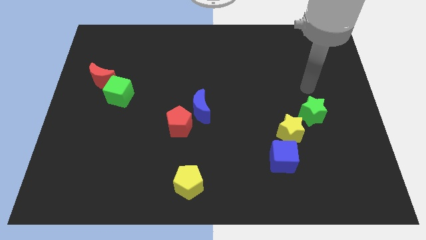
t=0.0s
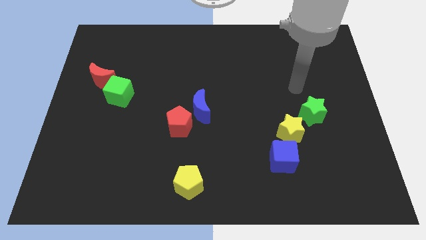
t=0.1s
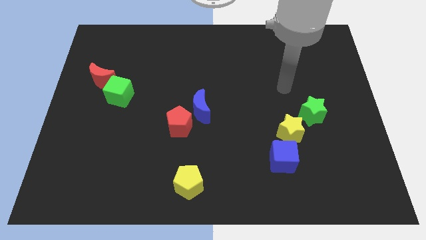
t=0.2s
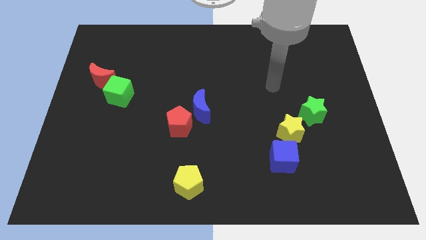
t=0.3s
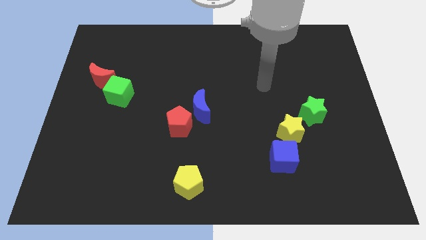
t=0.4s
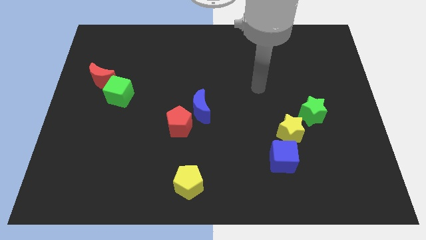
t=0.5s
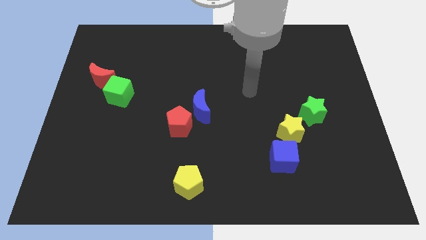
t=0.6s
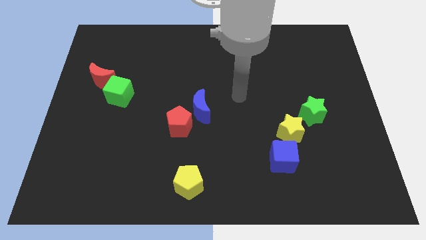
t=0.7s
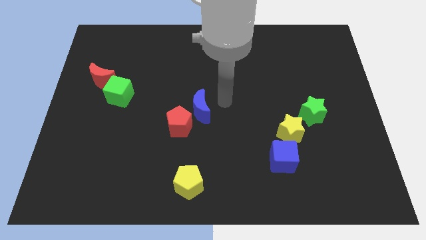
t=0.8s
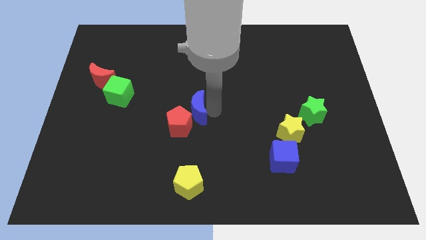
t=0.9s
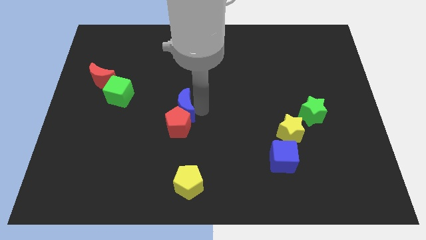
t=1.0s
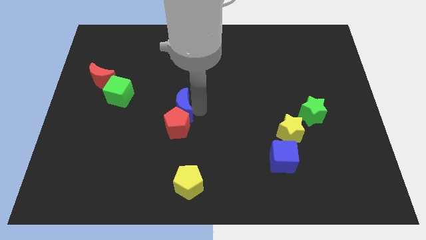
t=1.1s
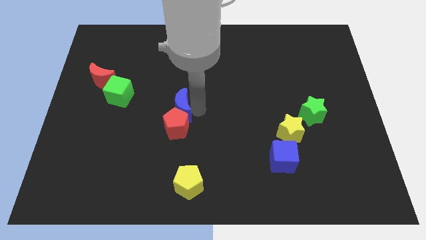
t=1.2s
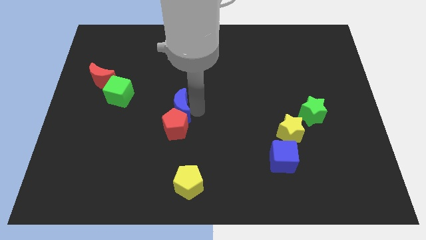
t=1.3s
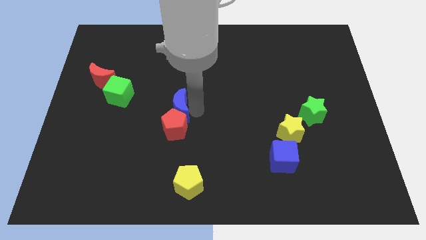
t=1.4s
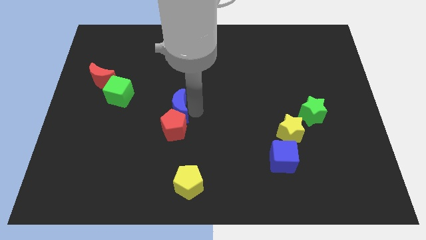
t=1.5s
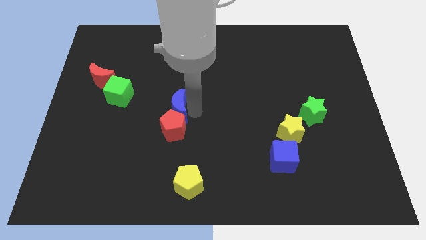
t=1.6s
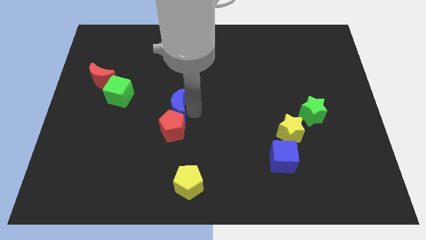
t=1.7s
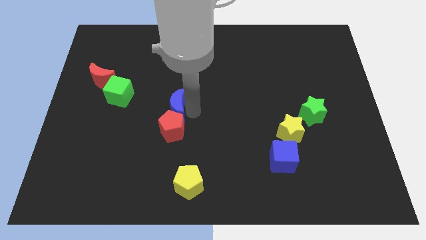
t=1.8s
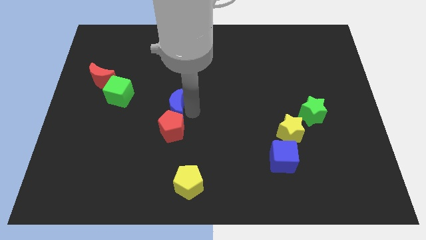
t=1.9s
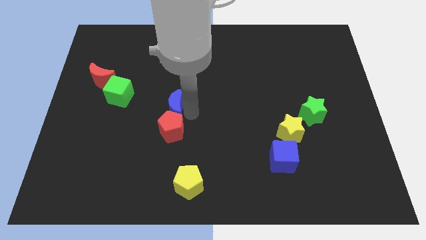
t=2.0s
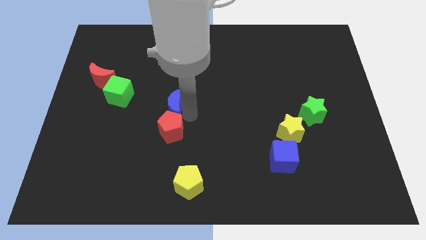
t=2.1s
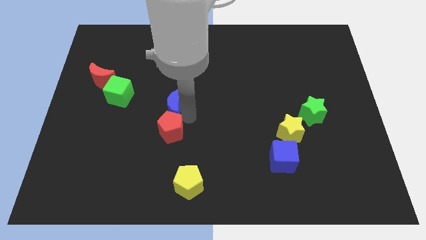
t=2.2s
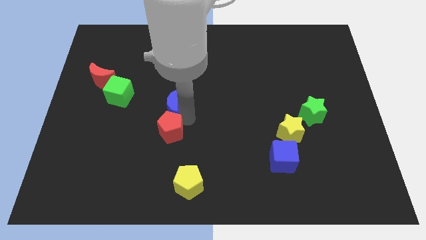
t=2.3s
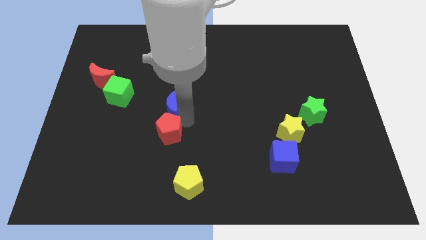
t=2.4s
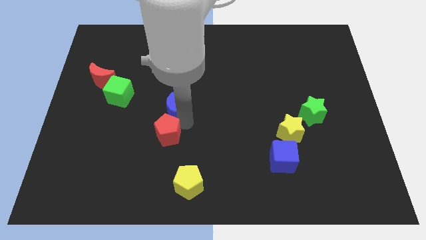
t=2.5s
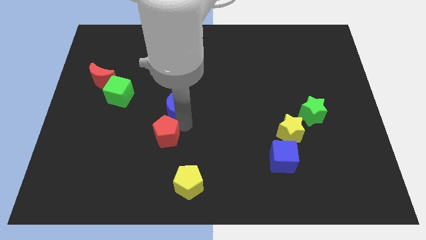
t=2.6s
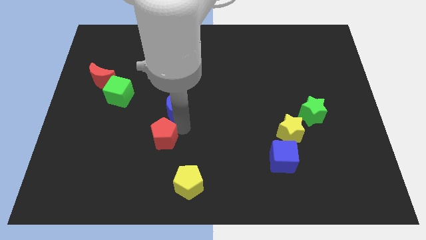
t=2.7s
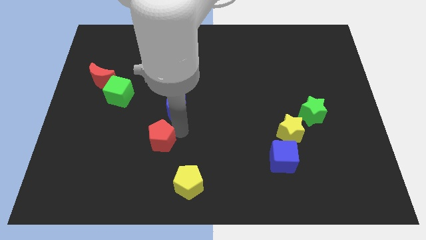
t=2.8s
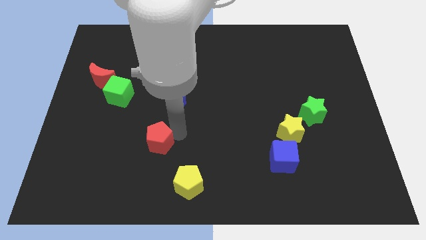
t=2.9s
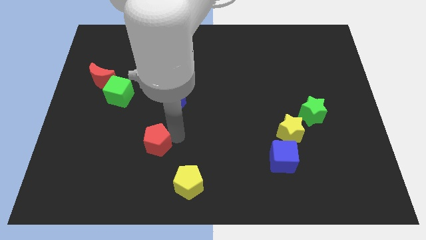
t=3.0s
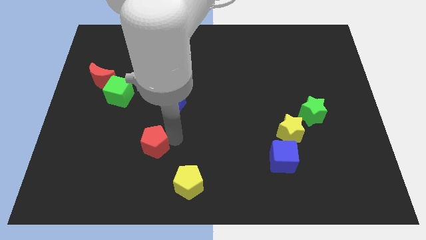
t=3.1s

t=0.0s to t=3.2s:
move the red pentagon downwards and to the left a little bit

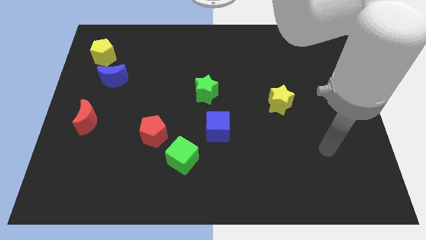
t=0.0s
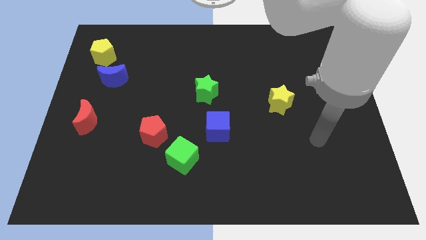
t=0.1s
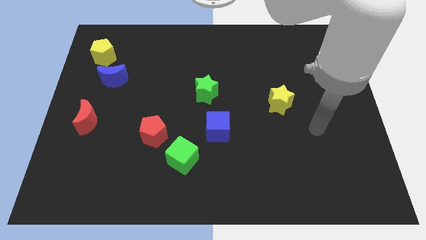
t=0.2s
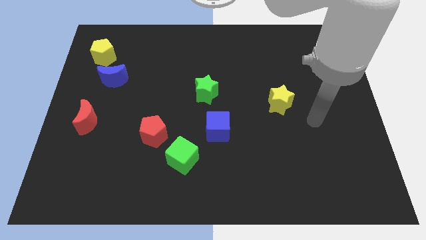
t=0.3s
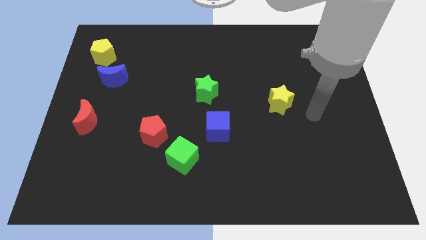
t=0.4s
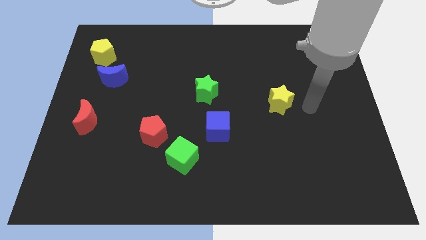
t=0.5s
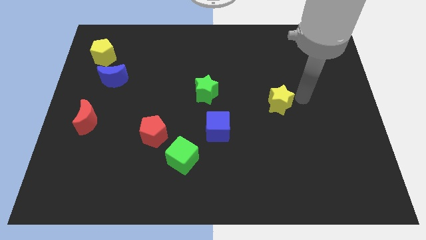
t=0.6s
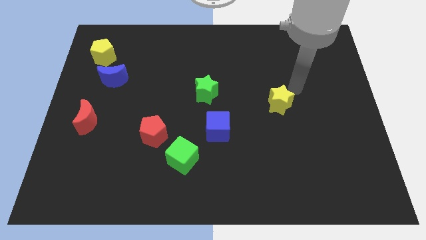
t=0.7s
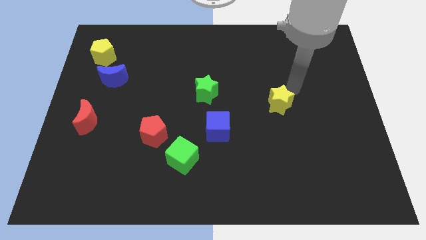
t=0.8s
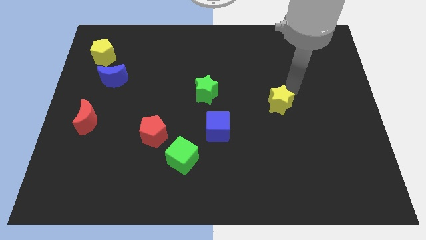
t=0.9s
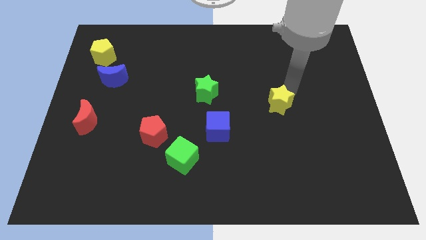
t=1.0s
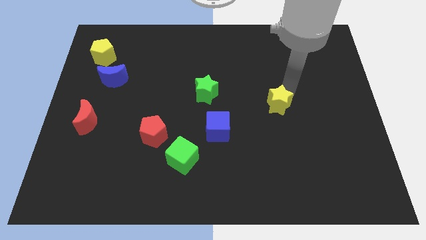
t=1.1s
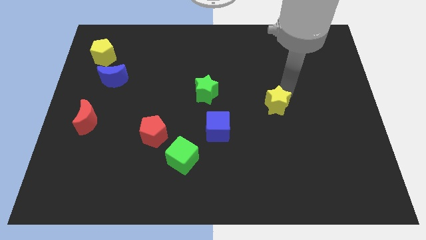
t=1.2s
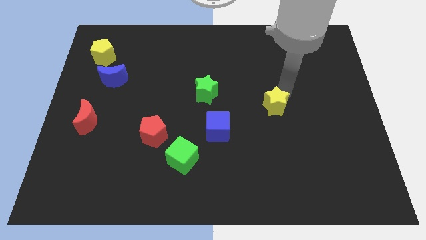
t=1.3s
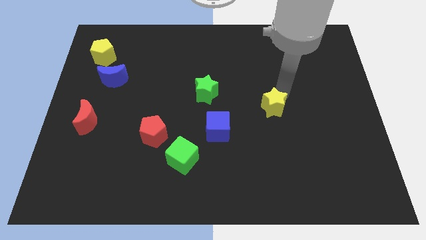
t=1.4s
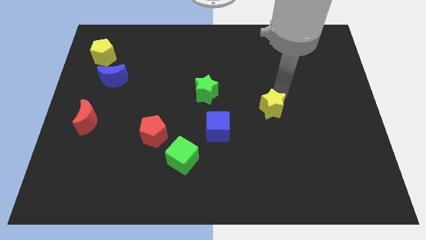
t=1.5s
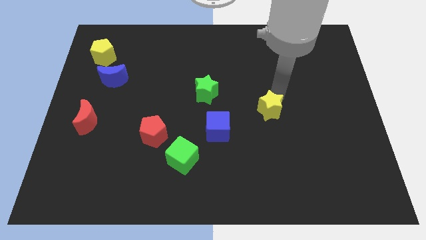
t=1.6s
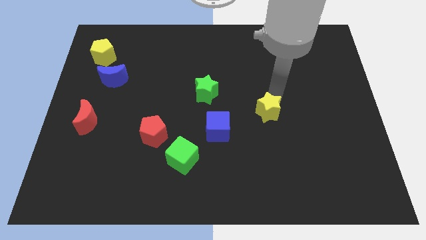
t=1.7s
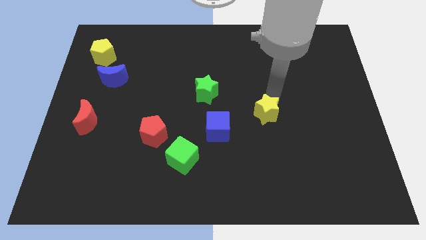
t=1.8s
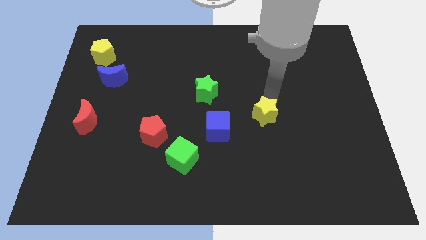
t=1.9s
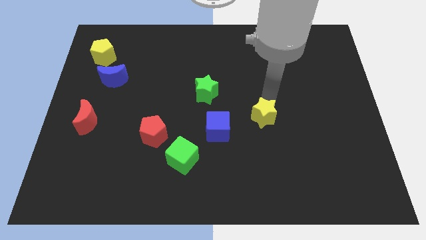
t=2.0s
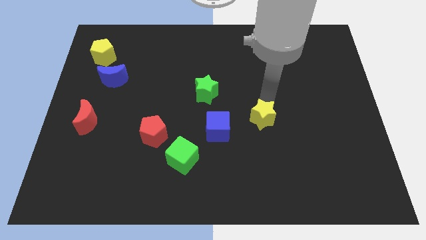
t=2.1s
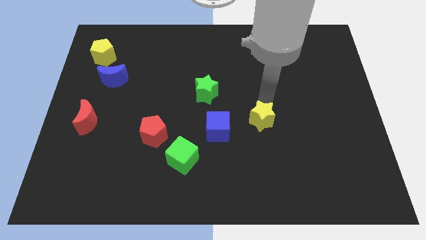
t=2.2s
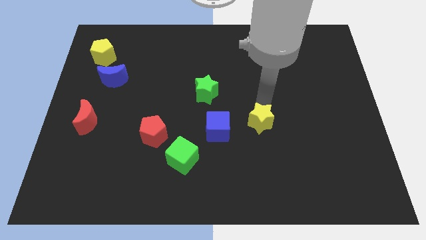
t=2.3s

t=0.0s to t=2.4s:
move the yellow star down and then left somewhat

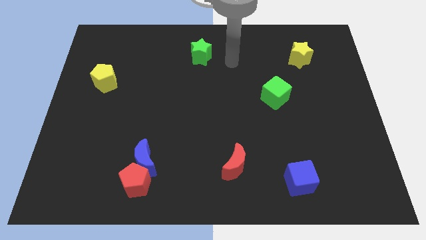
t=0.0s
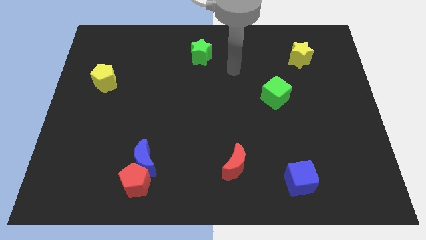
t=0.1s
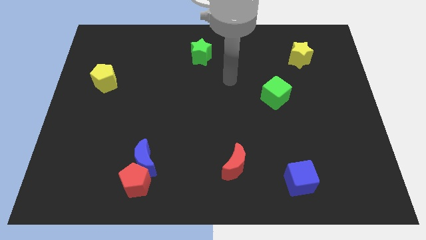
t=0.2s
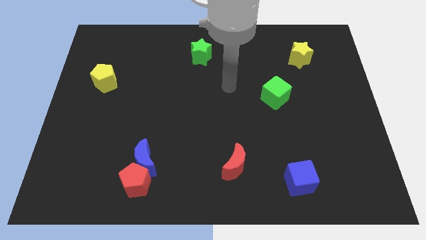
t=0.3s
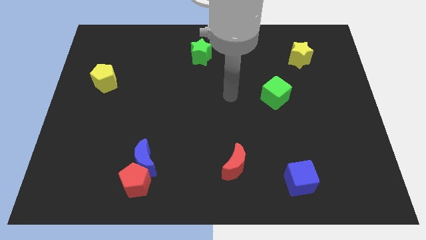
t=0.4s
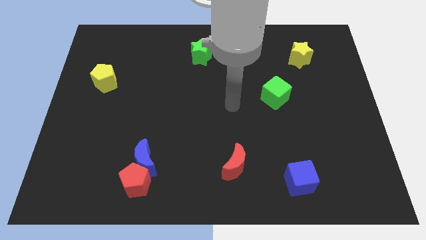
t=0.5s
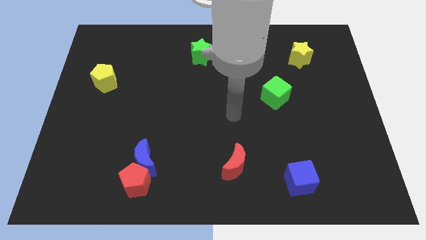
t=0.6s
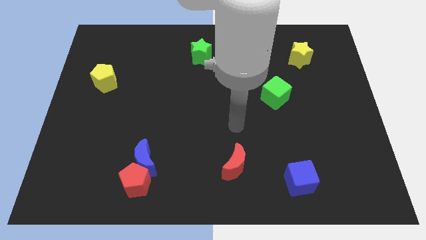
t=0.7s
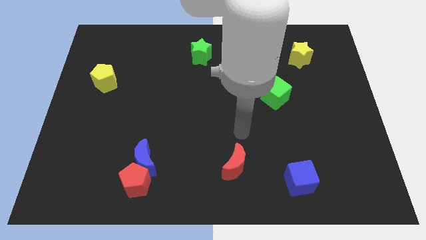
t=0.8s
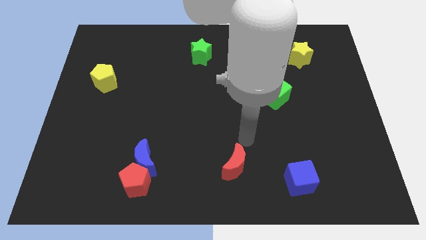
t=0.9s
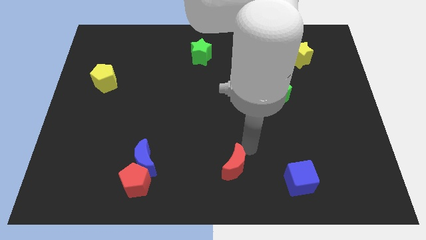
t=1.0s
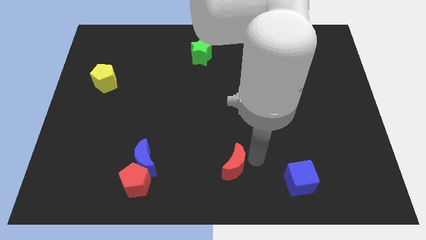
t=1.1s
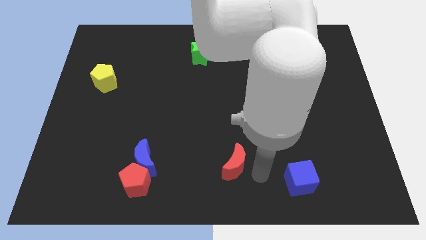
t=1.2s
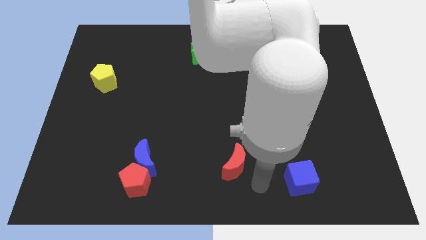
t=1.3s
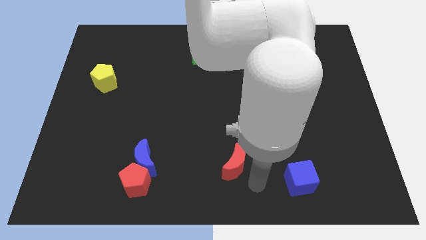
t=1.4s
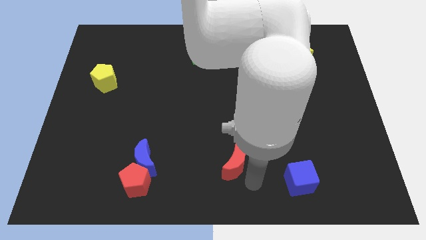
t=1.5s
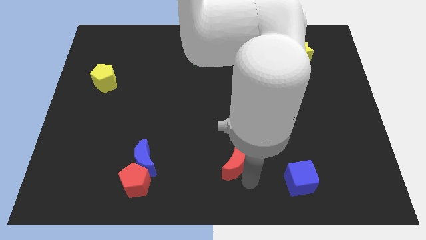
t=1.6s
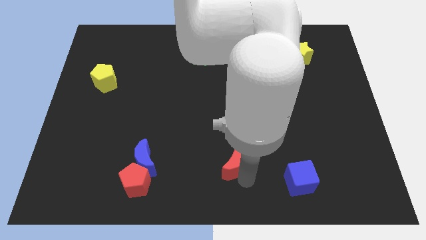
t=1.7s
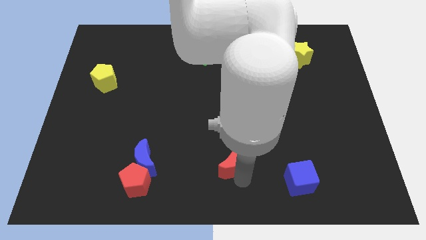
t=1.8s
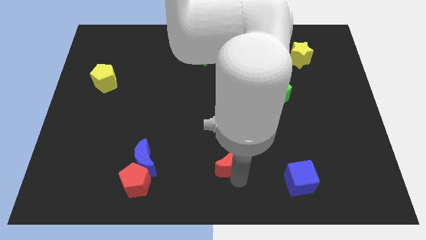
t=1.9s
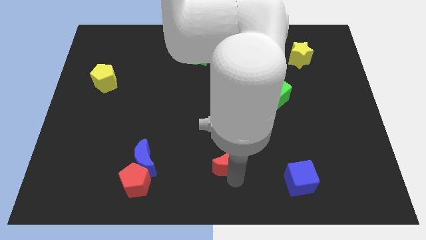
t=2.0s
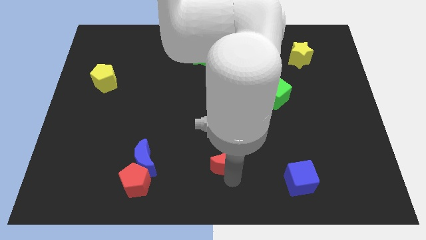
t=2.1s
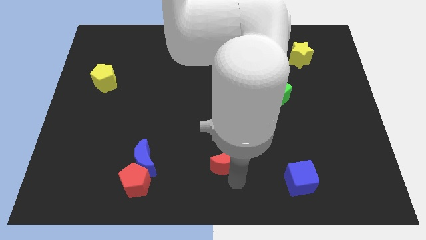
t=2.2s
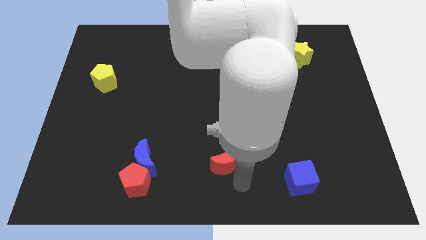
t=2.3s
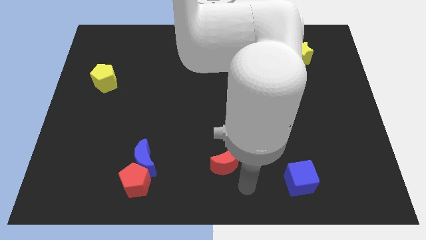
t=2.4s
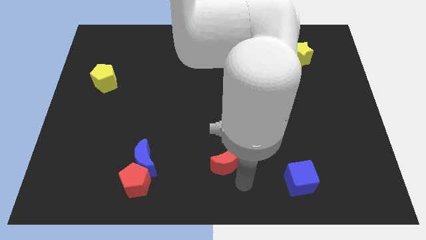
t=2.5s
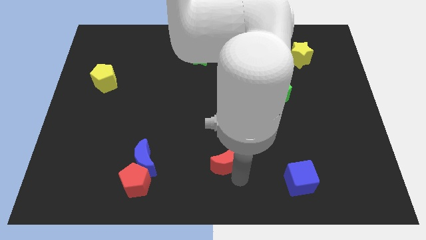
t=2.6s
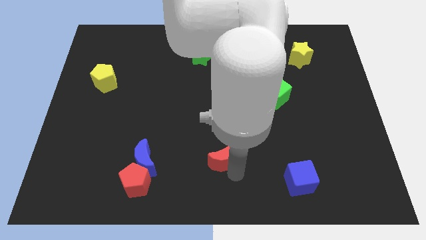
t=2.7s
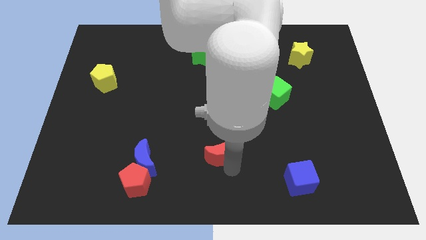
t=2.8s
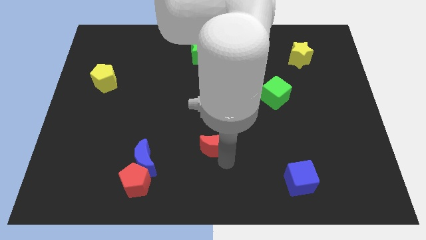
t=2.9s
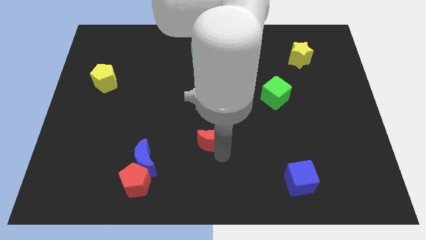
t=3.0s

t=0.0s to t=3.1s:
push the red moon somewhat diagonally up and left
